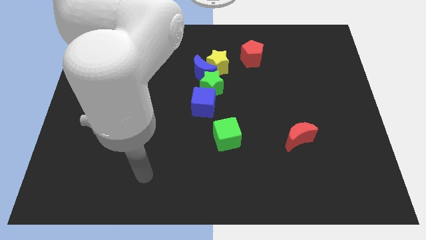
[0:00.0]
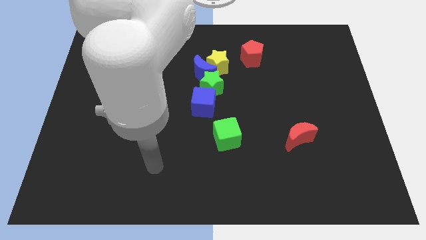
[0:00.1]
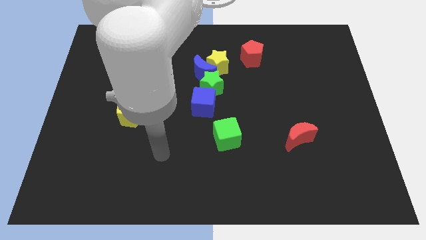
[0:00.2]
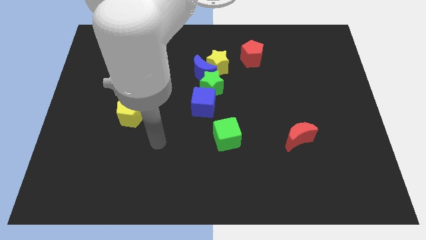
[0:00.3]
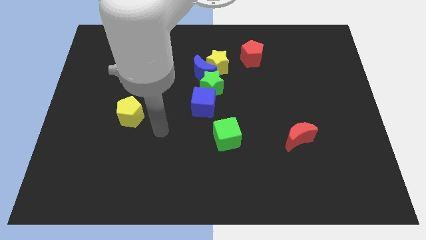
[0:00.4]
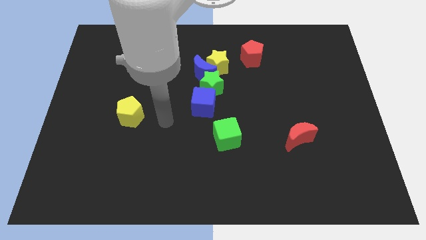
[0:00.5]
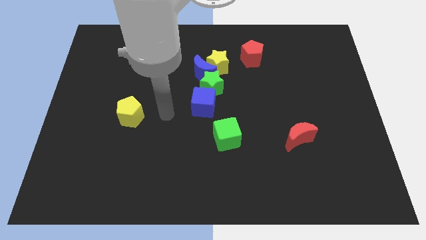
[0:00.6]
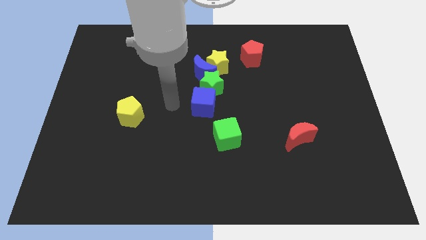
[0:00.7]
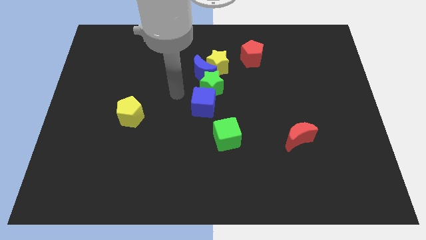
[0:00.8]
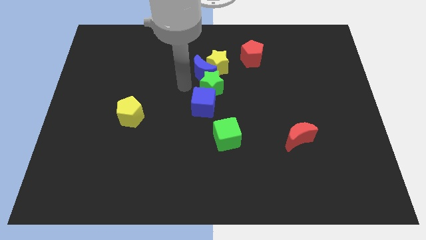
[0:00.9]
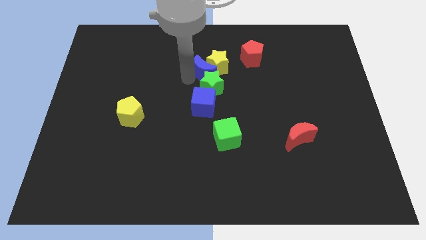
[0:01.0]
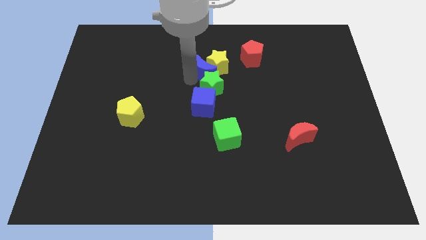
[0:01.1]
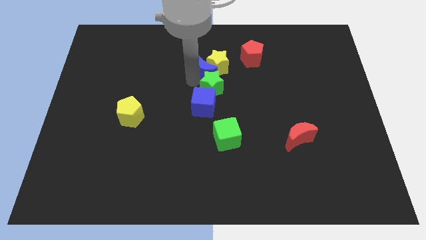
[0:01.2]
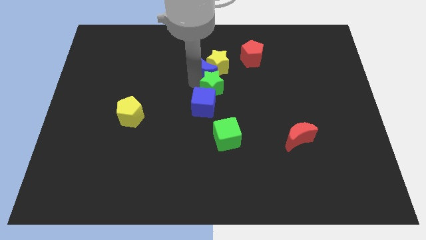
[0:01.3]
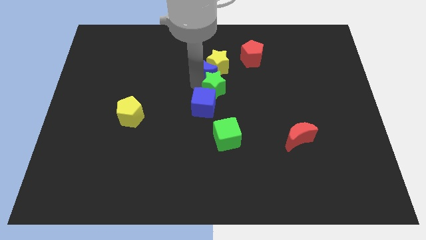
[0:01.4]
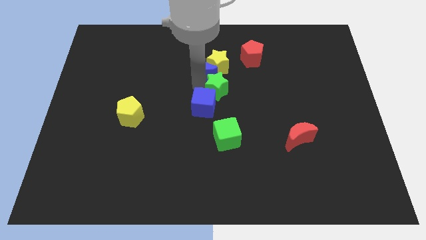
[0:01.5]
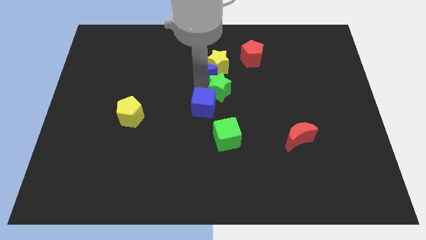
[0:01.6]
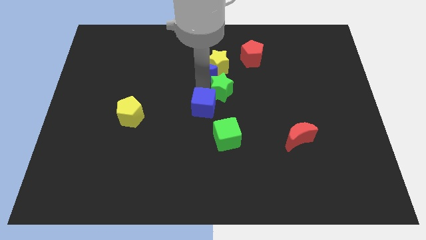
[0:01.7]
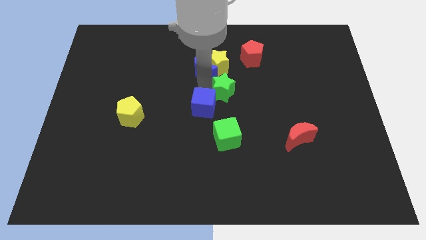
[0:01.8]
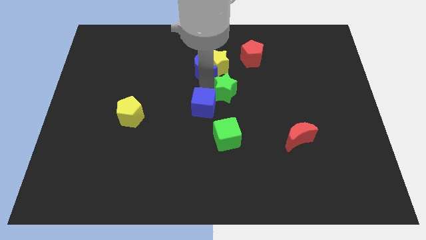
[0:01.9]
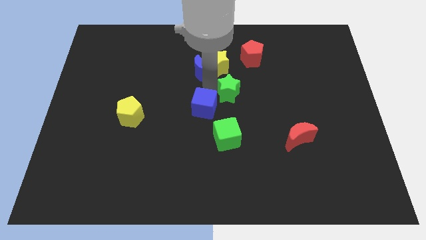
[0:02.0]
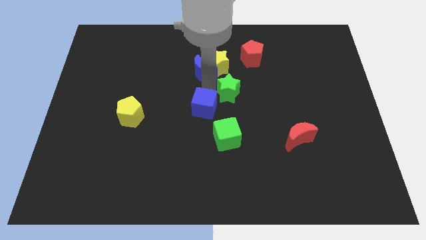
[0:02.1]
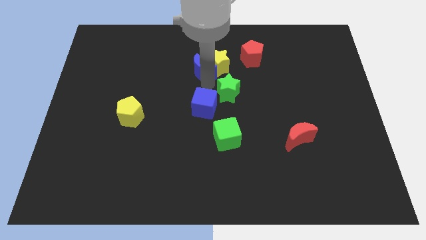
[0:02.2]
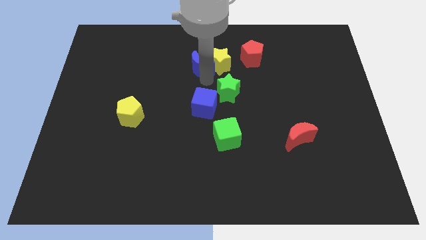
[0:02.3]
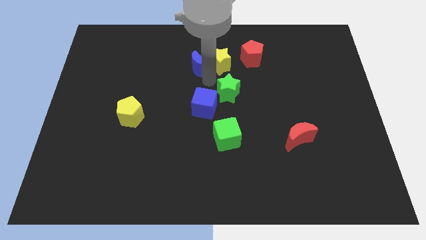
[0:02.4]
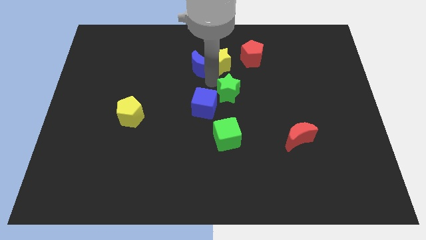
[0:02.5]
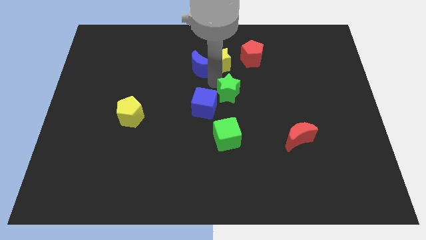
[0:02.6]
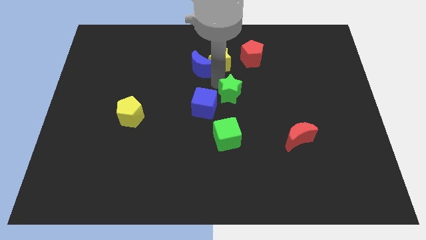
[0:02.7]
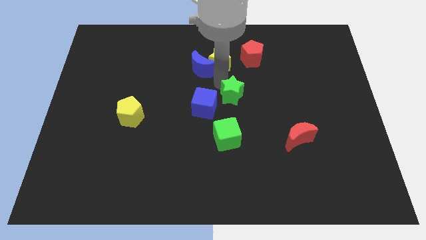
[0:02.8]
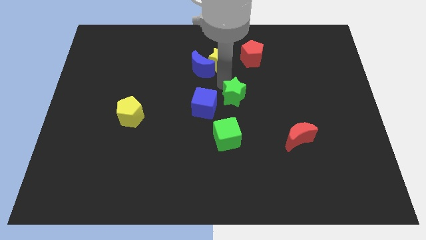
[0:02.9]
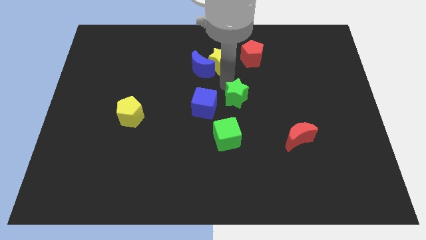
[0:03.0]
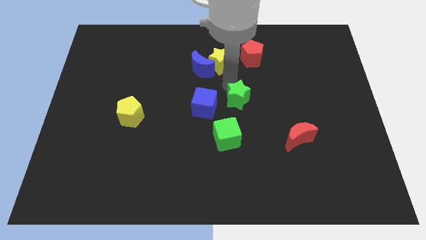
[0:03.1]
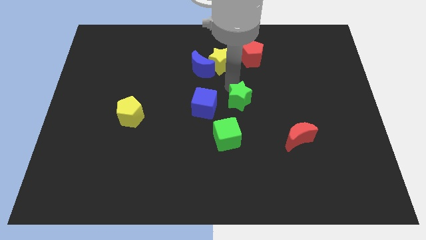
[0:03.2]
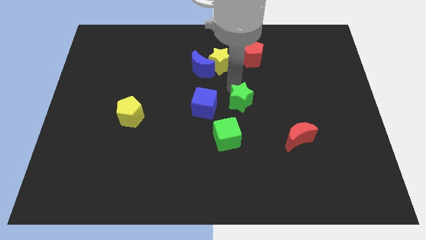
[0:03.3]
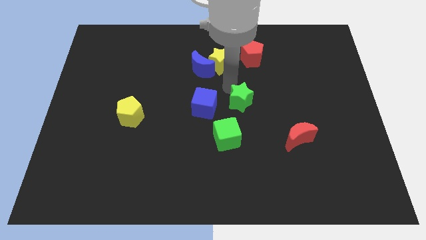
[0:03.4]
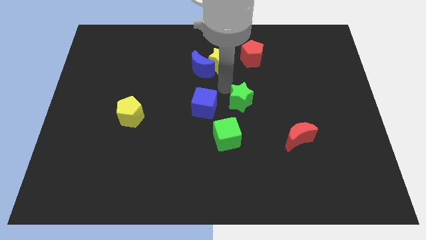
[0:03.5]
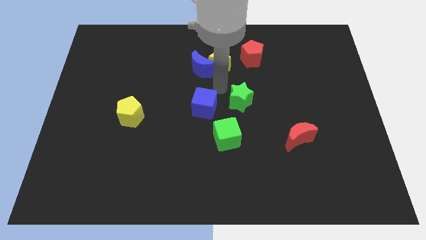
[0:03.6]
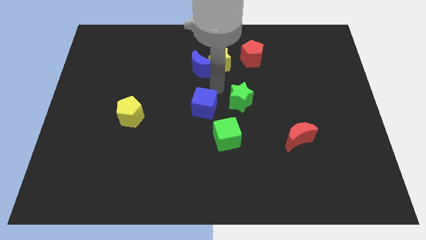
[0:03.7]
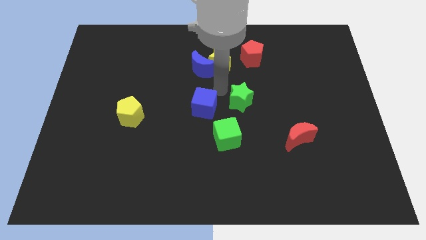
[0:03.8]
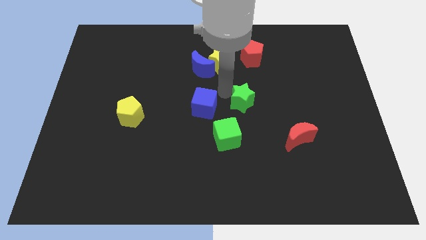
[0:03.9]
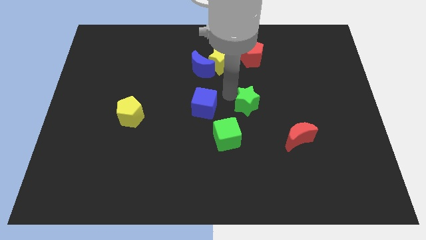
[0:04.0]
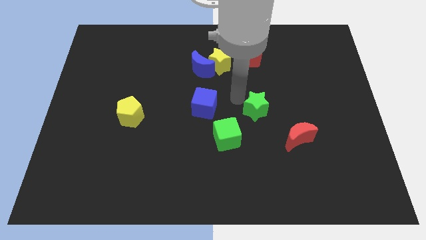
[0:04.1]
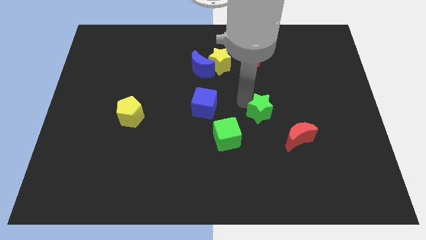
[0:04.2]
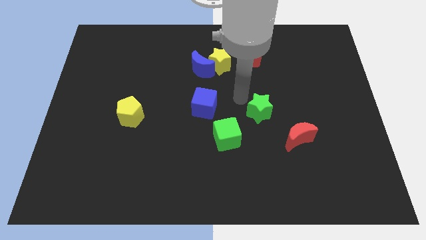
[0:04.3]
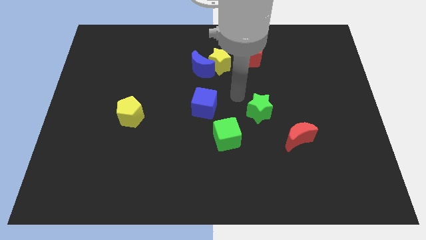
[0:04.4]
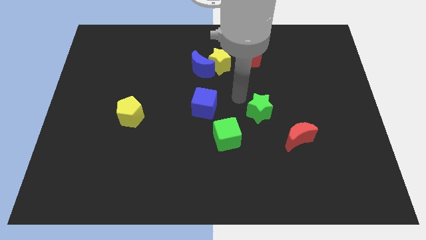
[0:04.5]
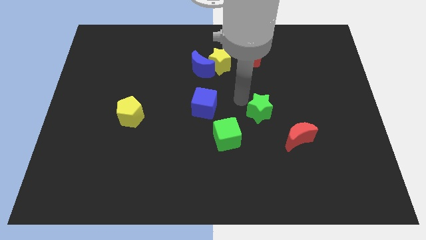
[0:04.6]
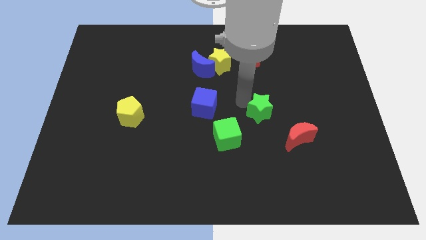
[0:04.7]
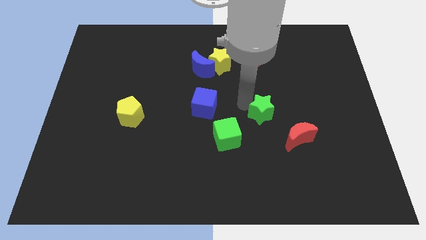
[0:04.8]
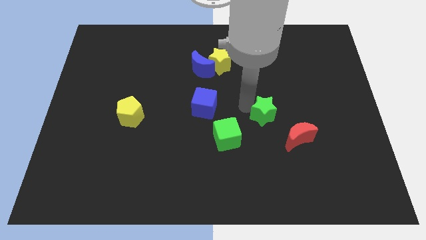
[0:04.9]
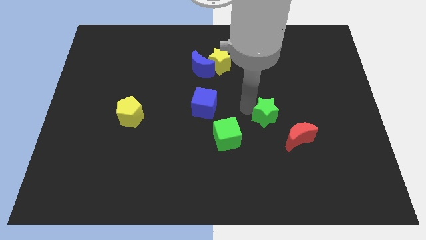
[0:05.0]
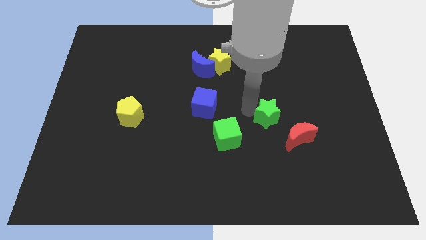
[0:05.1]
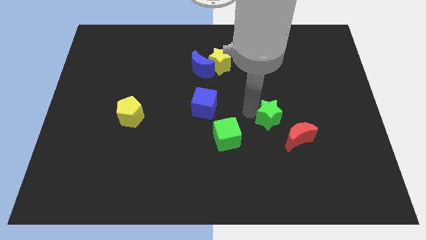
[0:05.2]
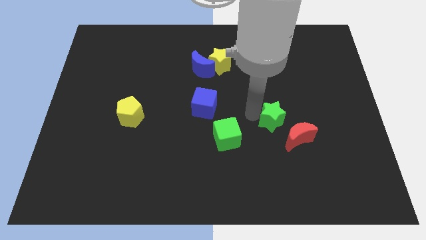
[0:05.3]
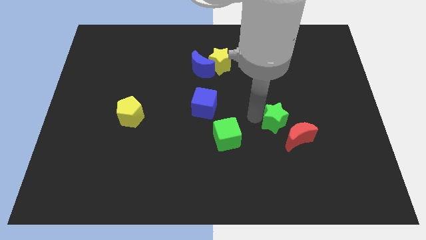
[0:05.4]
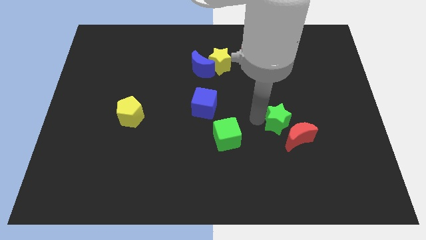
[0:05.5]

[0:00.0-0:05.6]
move the green star towards the red moon
